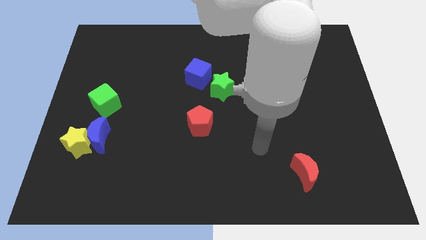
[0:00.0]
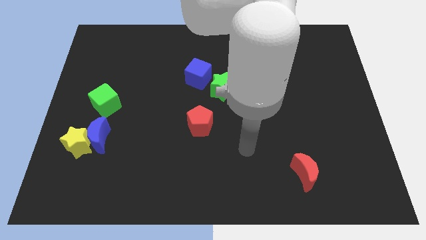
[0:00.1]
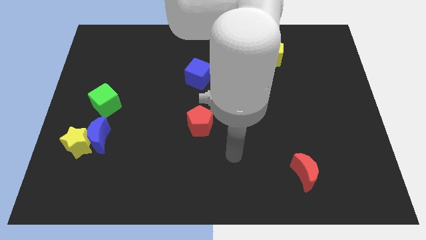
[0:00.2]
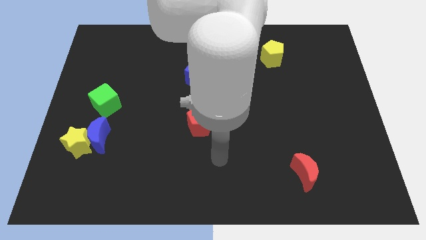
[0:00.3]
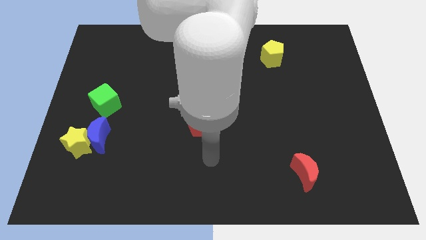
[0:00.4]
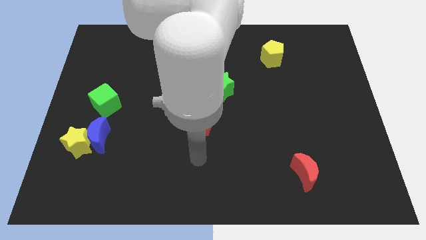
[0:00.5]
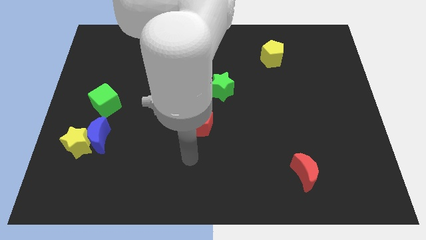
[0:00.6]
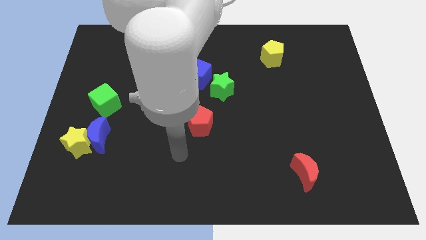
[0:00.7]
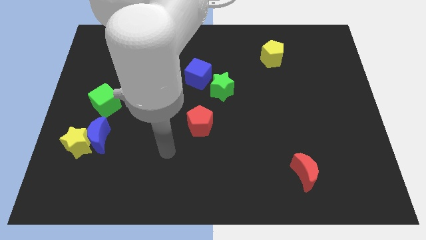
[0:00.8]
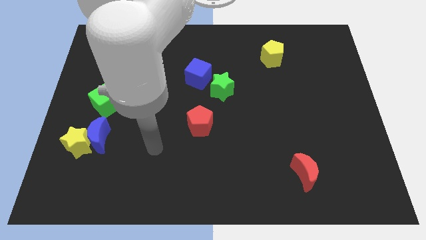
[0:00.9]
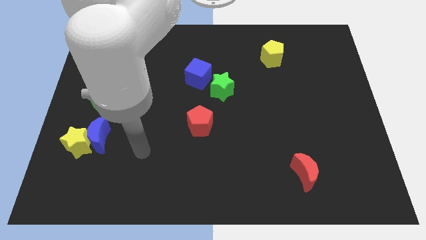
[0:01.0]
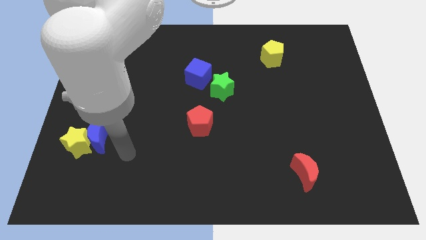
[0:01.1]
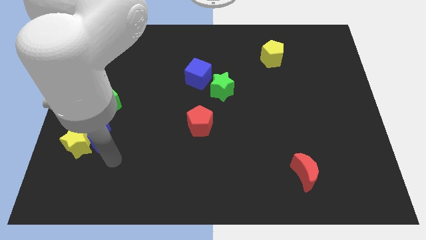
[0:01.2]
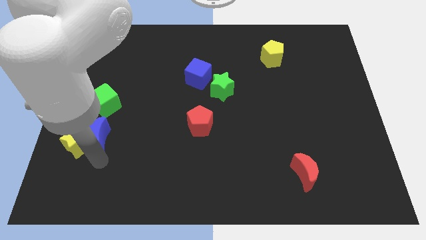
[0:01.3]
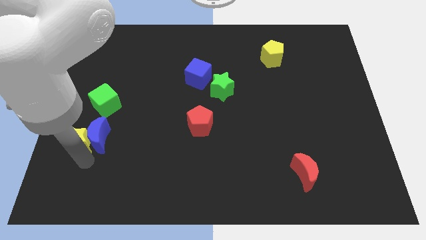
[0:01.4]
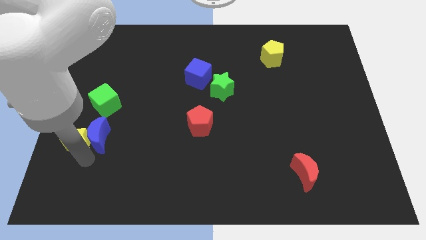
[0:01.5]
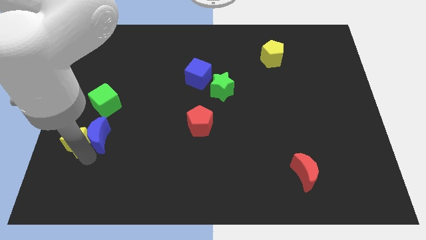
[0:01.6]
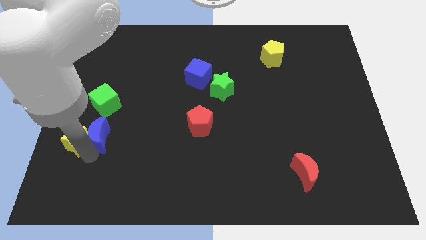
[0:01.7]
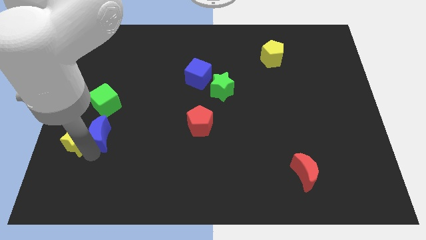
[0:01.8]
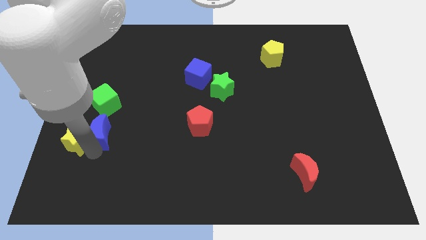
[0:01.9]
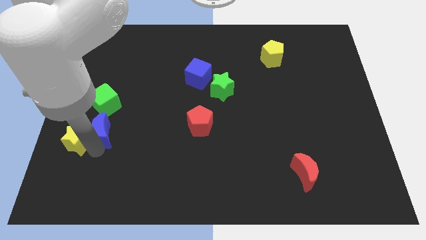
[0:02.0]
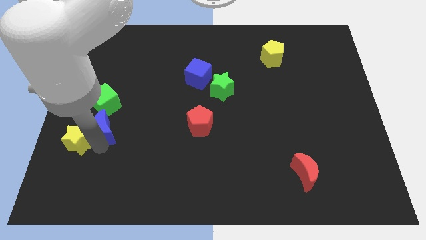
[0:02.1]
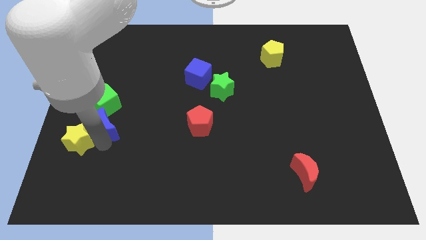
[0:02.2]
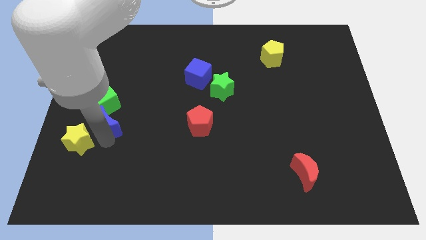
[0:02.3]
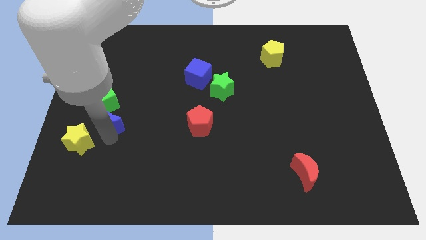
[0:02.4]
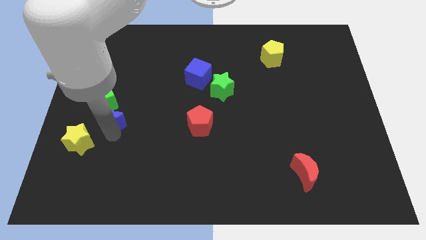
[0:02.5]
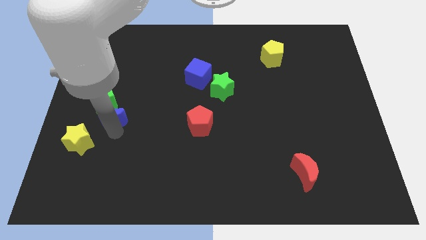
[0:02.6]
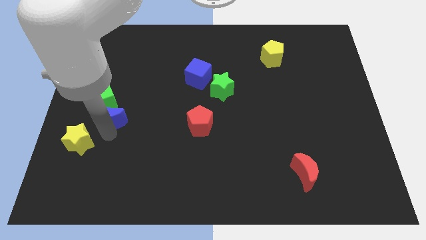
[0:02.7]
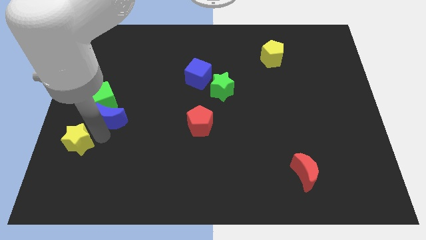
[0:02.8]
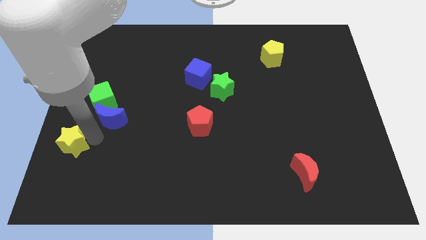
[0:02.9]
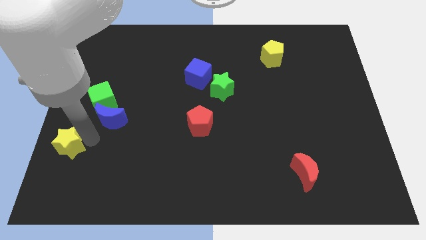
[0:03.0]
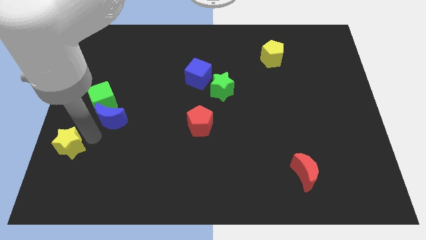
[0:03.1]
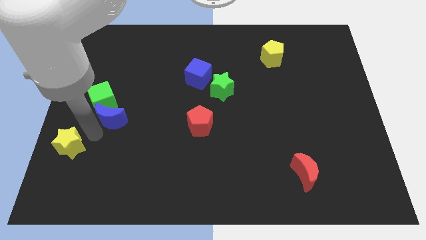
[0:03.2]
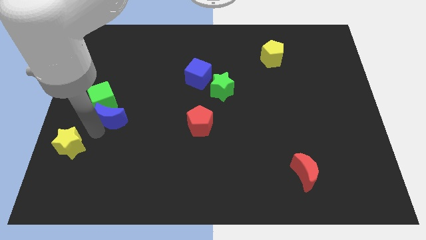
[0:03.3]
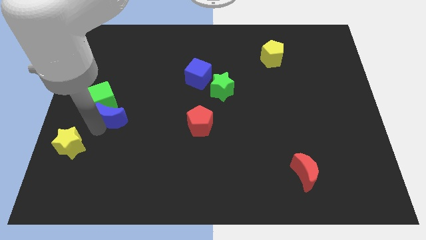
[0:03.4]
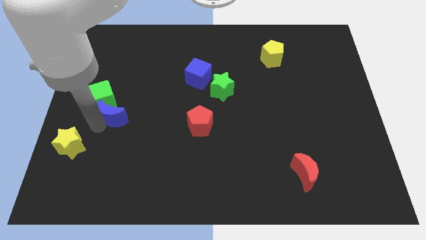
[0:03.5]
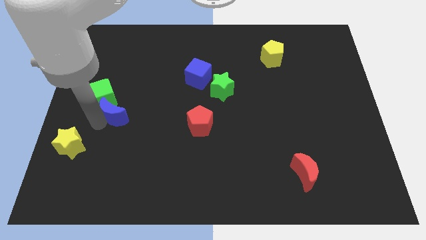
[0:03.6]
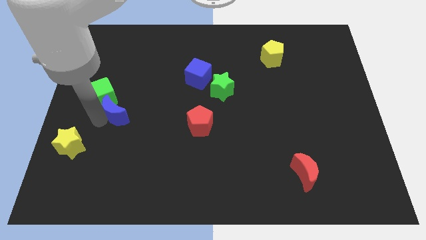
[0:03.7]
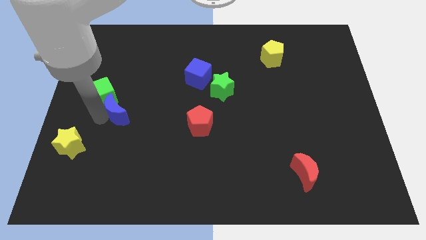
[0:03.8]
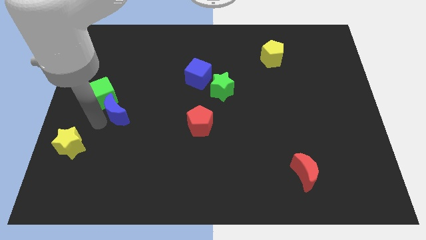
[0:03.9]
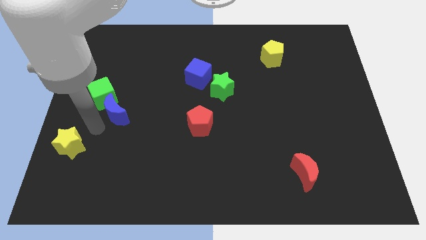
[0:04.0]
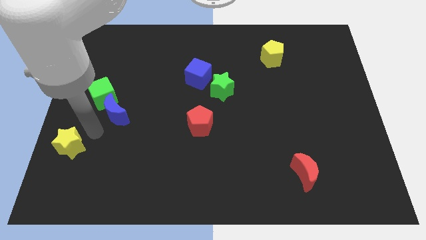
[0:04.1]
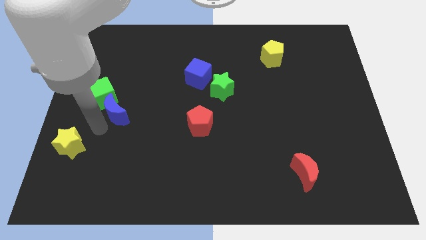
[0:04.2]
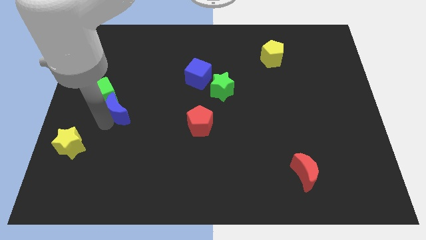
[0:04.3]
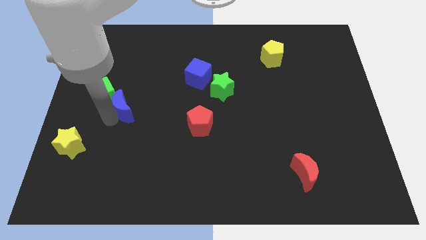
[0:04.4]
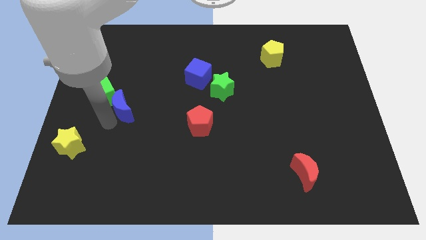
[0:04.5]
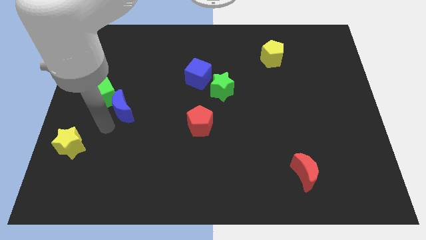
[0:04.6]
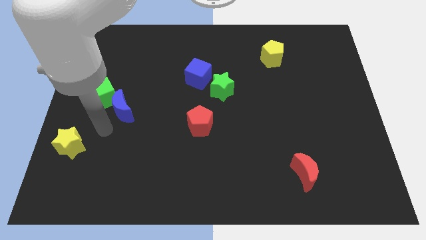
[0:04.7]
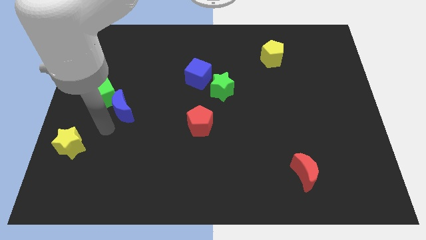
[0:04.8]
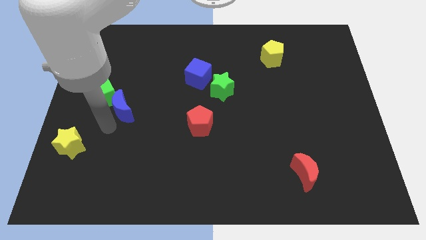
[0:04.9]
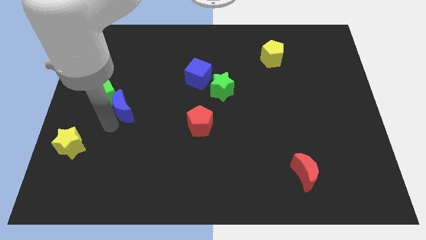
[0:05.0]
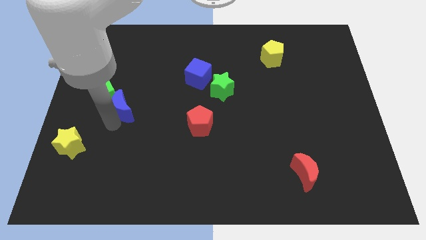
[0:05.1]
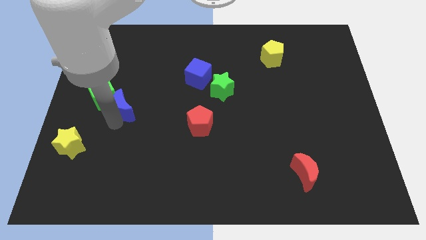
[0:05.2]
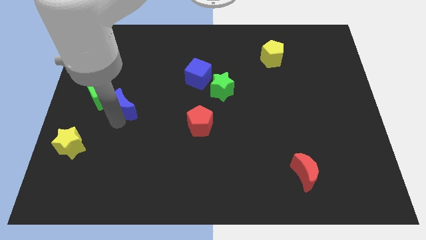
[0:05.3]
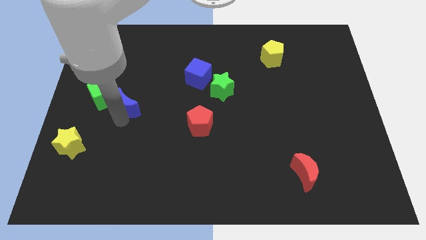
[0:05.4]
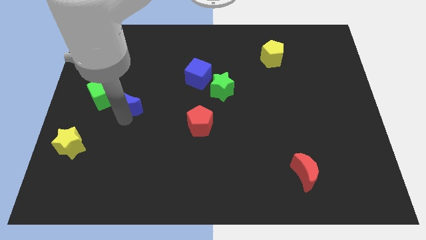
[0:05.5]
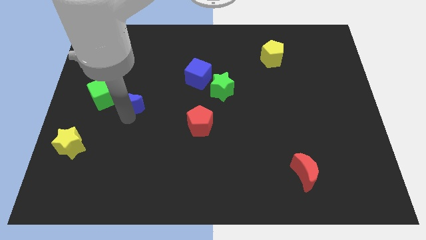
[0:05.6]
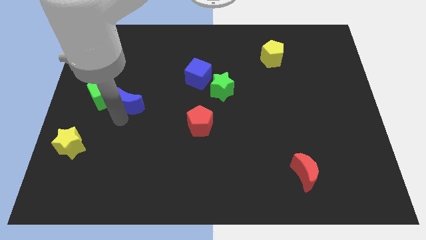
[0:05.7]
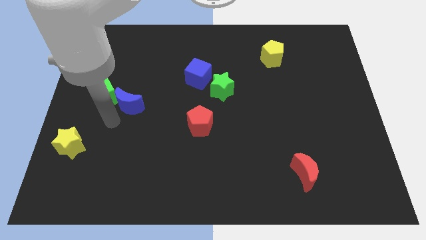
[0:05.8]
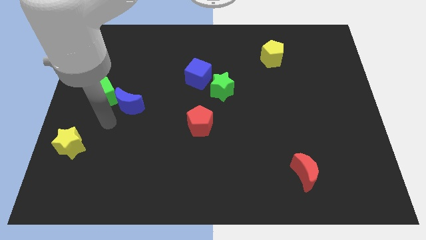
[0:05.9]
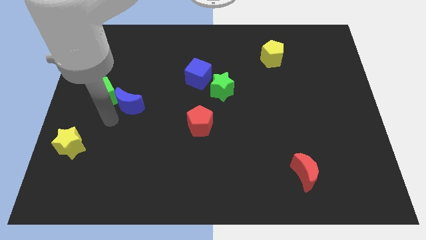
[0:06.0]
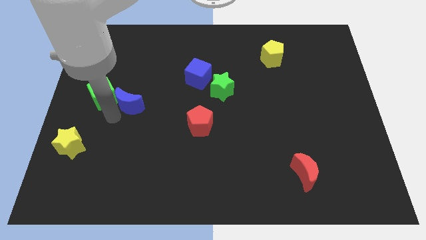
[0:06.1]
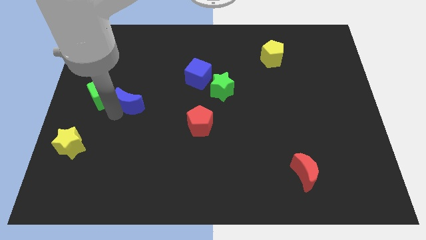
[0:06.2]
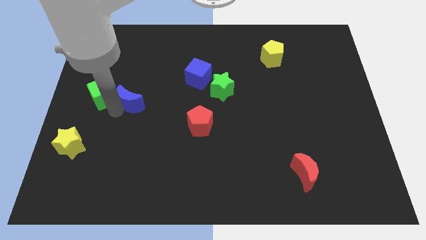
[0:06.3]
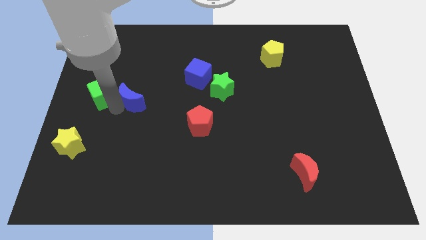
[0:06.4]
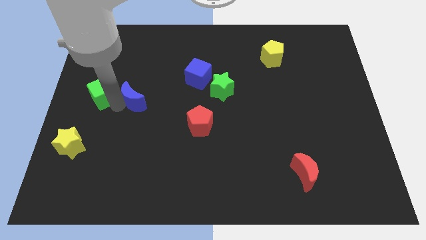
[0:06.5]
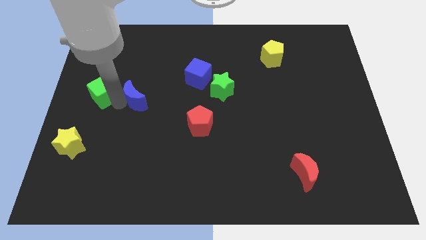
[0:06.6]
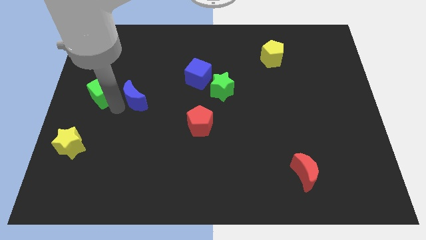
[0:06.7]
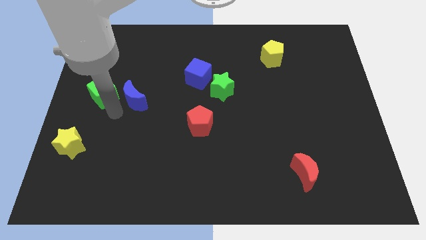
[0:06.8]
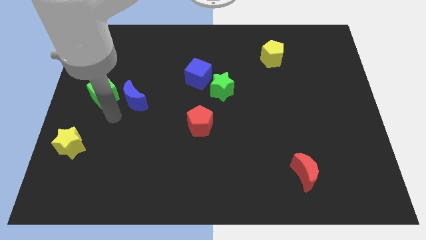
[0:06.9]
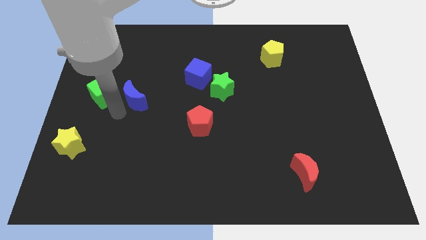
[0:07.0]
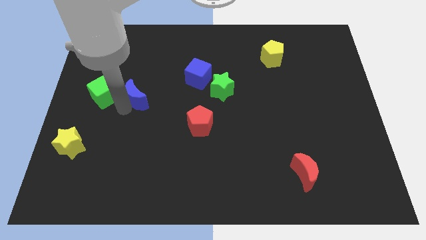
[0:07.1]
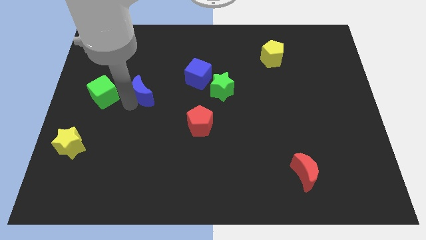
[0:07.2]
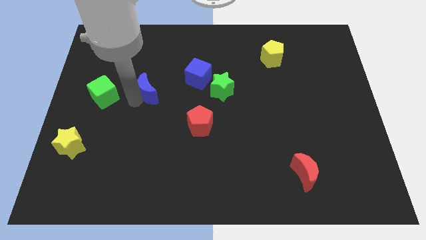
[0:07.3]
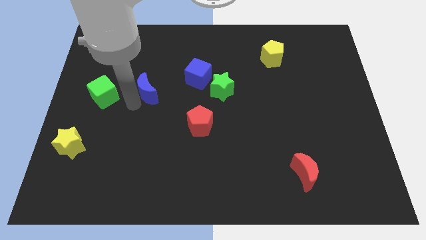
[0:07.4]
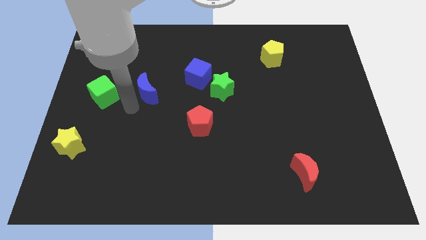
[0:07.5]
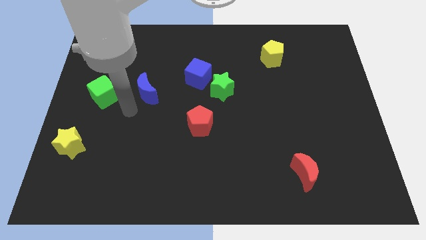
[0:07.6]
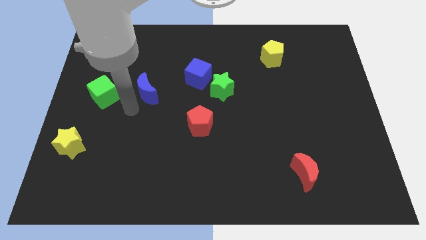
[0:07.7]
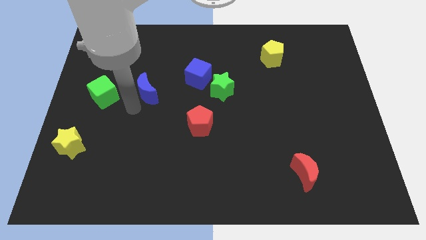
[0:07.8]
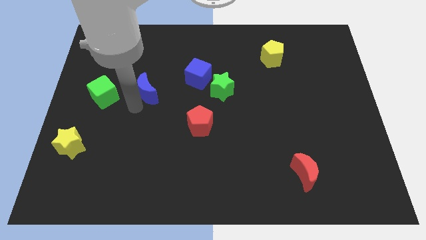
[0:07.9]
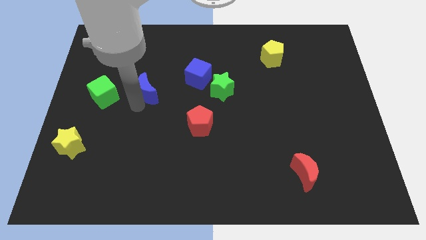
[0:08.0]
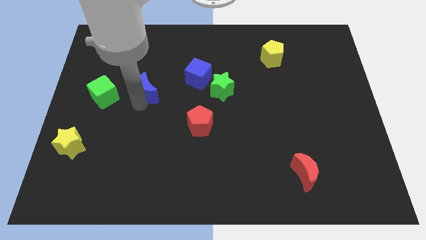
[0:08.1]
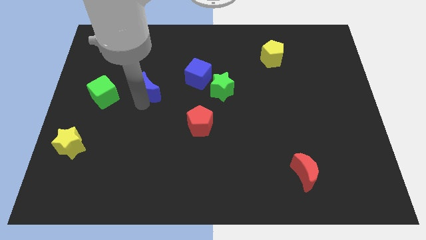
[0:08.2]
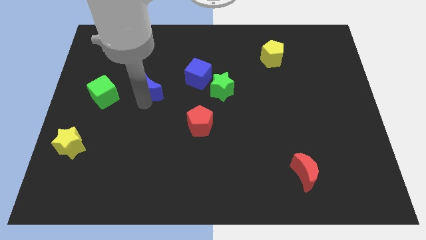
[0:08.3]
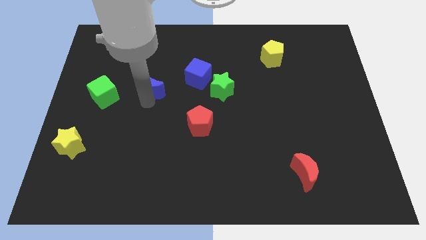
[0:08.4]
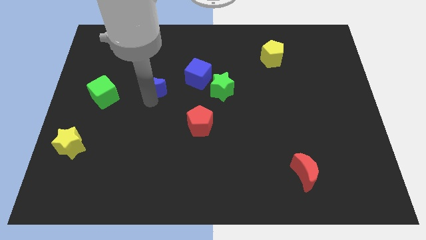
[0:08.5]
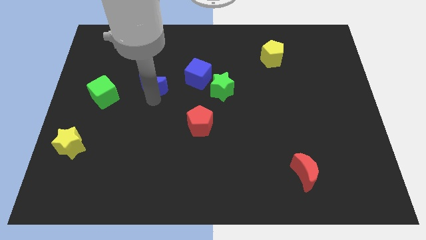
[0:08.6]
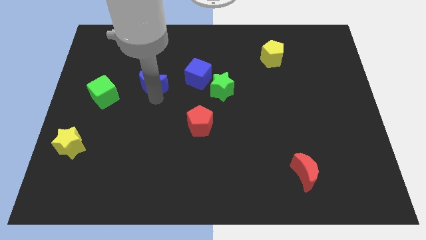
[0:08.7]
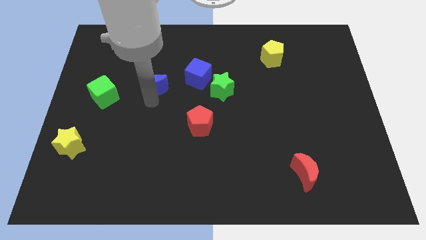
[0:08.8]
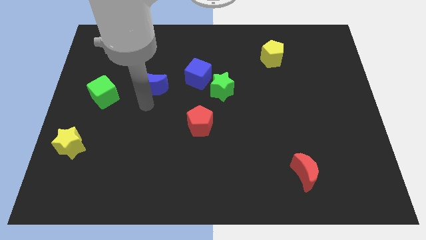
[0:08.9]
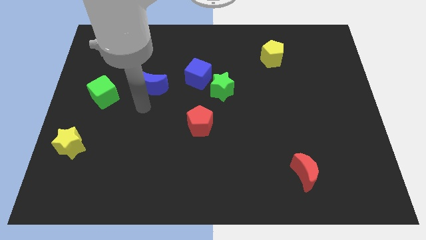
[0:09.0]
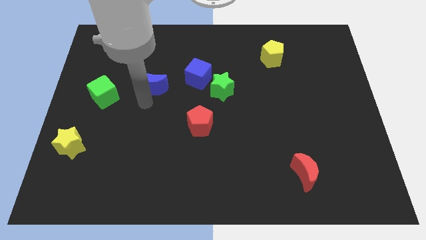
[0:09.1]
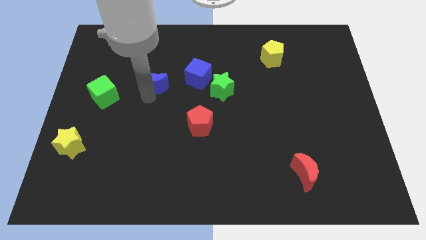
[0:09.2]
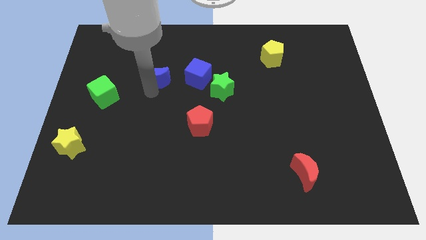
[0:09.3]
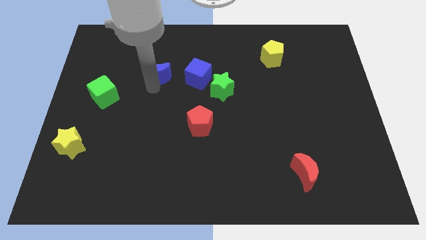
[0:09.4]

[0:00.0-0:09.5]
move the blue moon up and right
